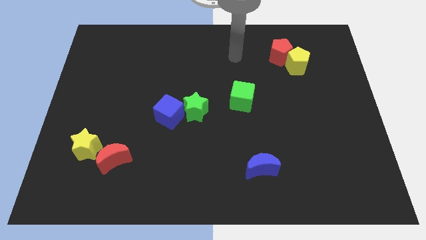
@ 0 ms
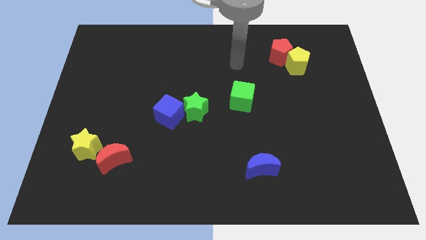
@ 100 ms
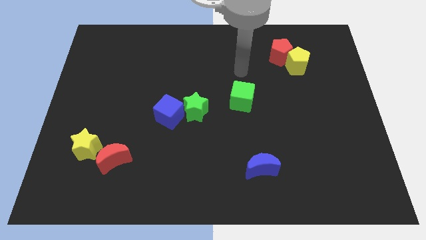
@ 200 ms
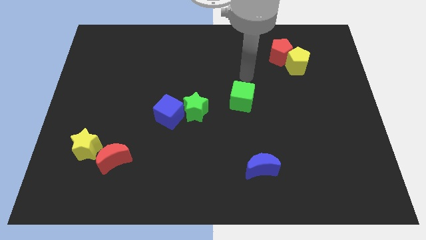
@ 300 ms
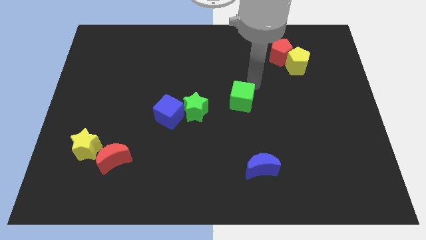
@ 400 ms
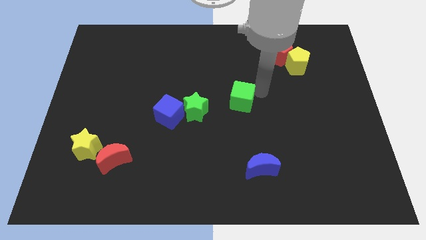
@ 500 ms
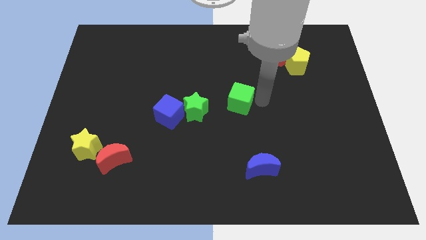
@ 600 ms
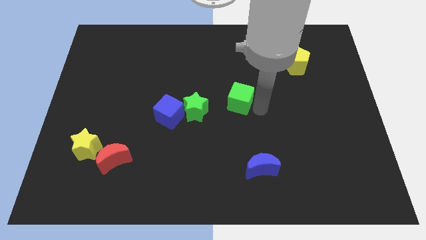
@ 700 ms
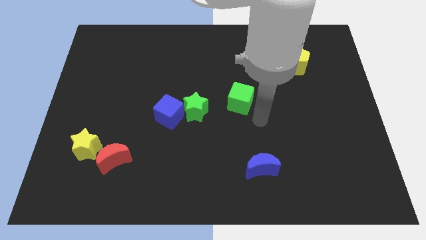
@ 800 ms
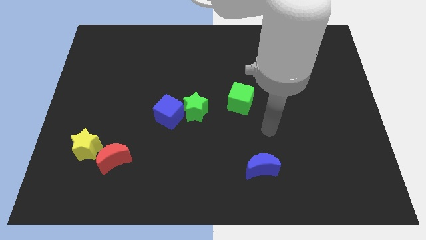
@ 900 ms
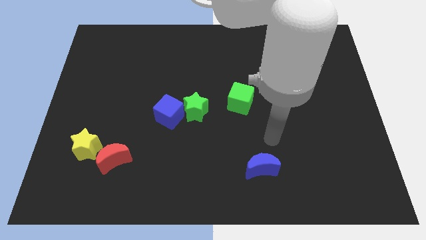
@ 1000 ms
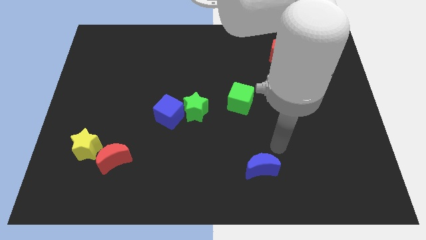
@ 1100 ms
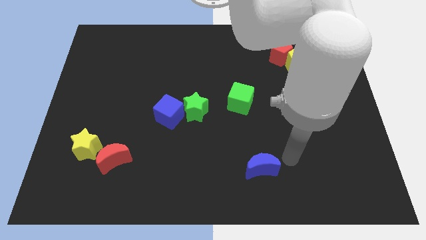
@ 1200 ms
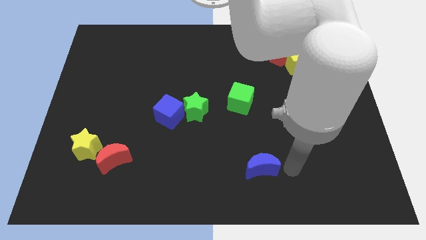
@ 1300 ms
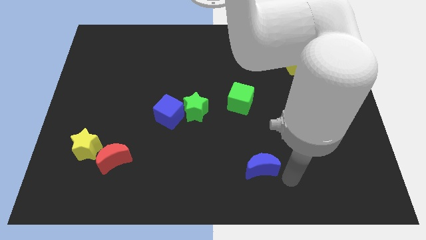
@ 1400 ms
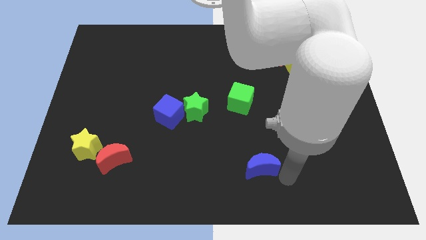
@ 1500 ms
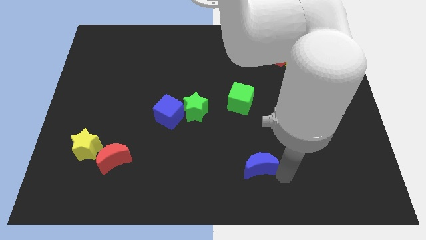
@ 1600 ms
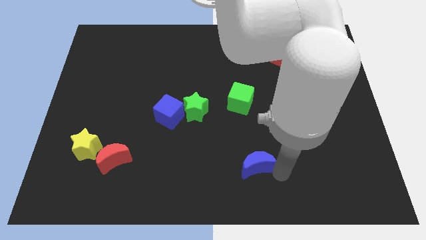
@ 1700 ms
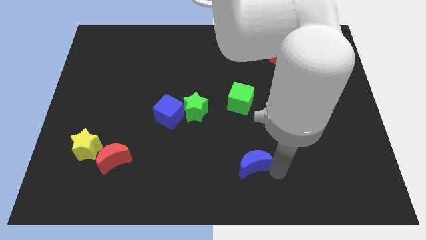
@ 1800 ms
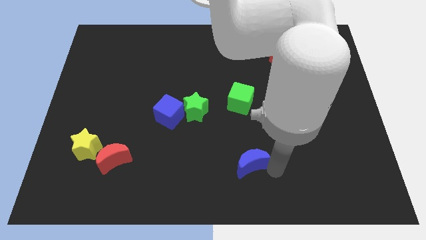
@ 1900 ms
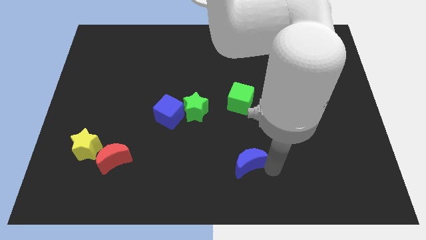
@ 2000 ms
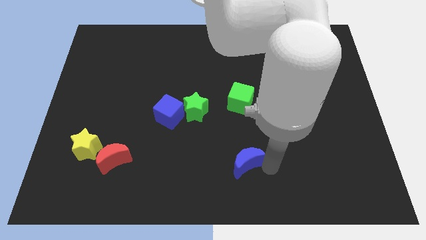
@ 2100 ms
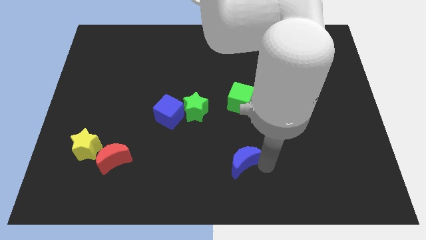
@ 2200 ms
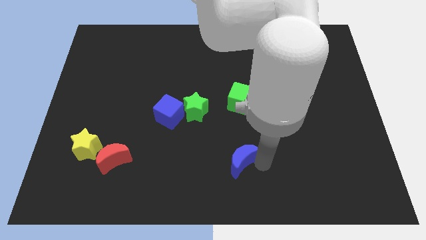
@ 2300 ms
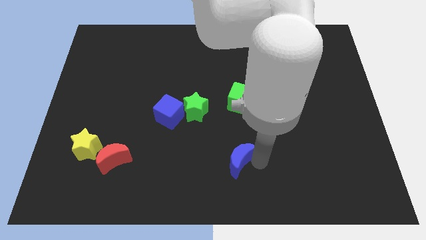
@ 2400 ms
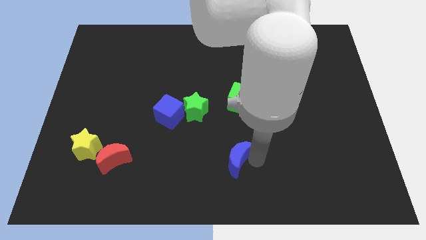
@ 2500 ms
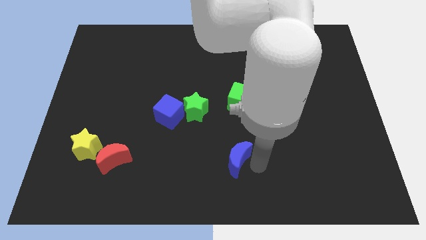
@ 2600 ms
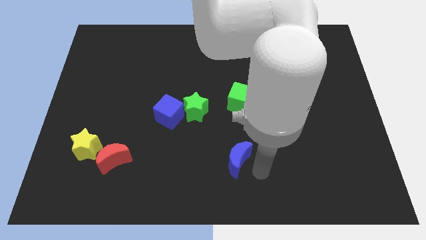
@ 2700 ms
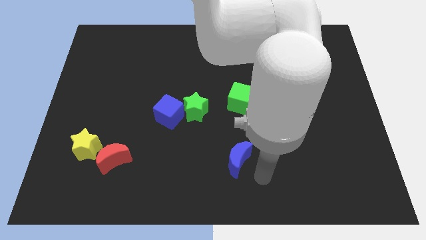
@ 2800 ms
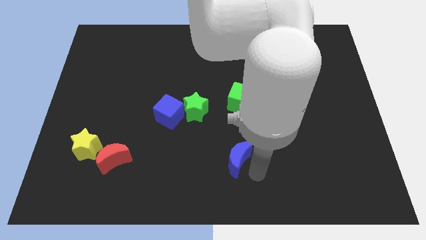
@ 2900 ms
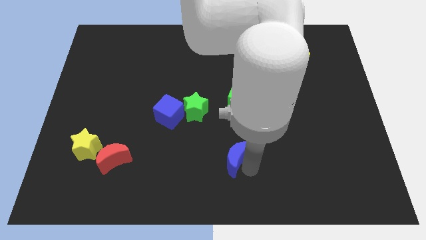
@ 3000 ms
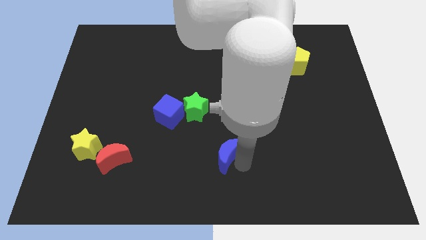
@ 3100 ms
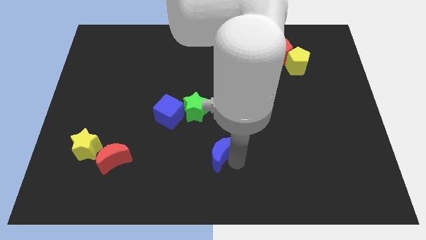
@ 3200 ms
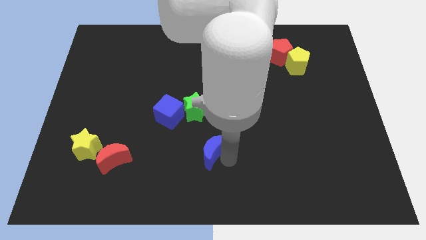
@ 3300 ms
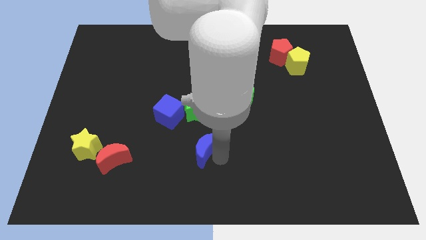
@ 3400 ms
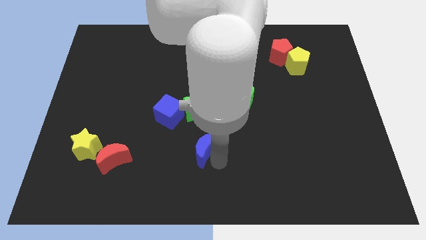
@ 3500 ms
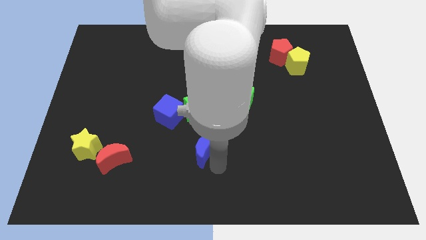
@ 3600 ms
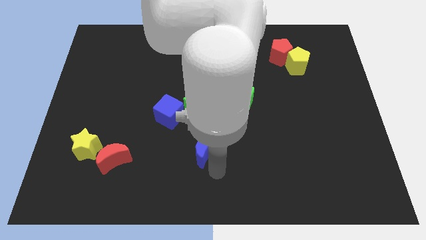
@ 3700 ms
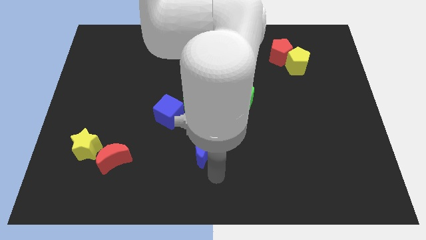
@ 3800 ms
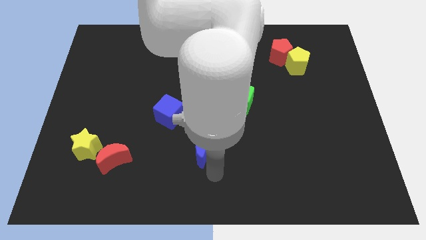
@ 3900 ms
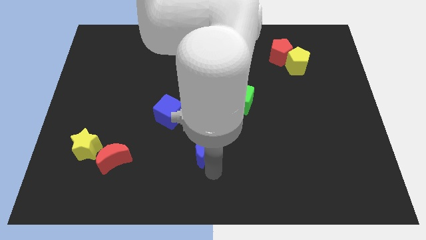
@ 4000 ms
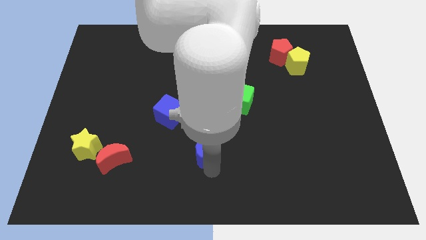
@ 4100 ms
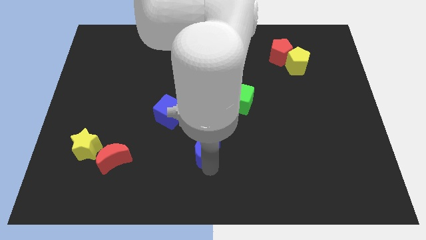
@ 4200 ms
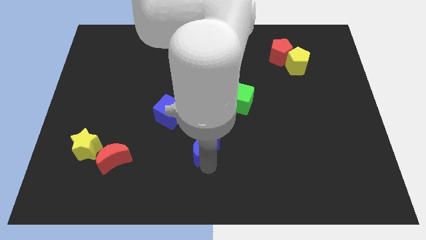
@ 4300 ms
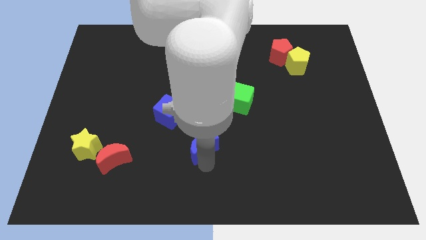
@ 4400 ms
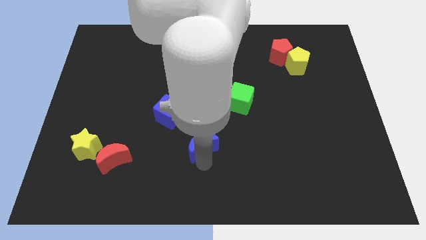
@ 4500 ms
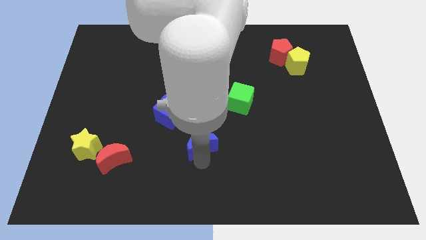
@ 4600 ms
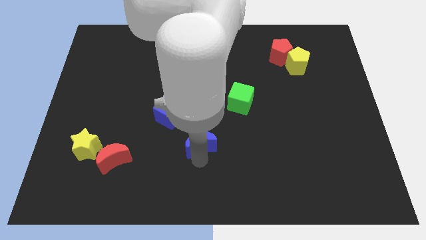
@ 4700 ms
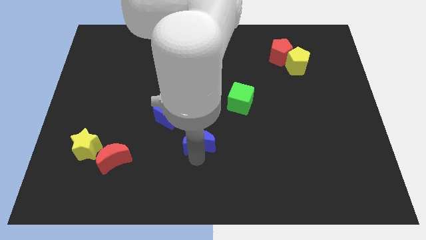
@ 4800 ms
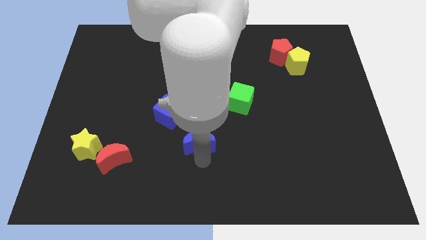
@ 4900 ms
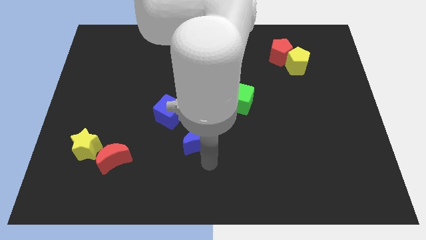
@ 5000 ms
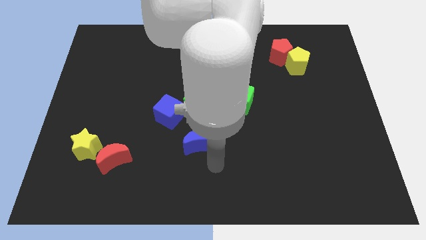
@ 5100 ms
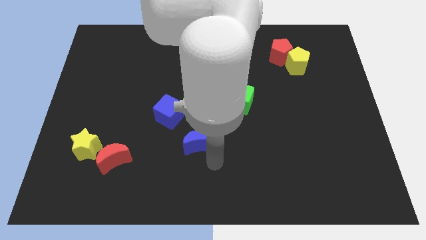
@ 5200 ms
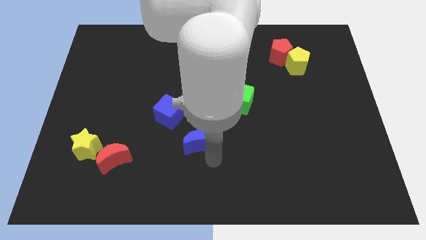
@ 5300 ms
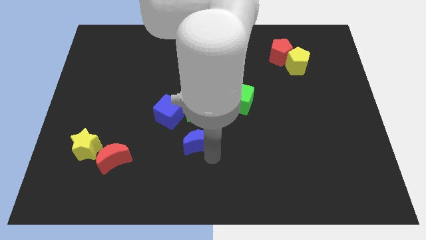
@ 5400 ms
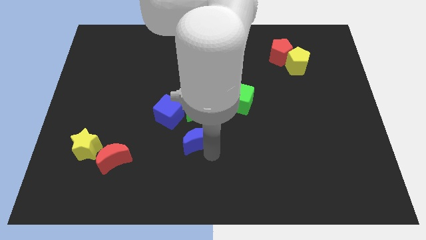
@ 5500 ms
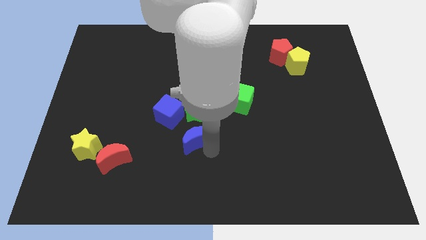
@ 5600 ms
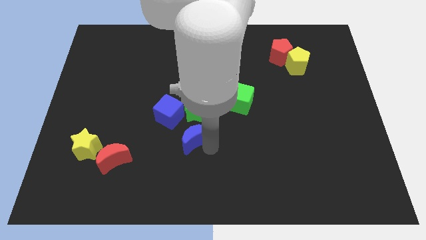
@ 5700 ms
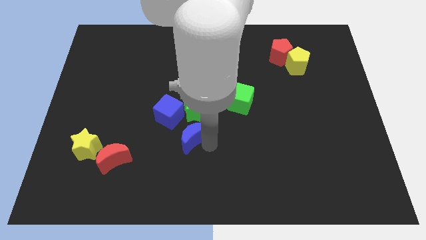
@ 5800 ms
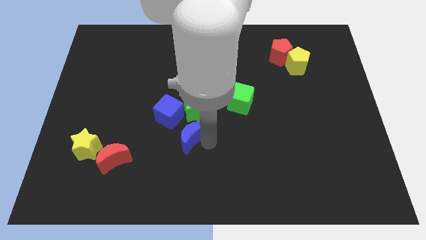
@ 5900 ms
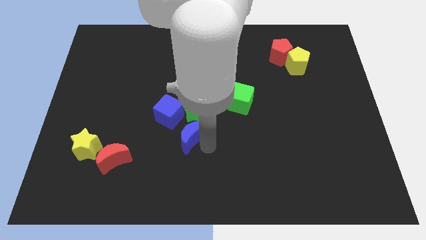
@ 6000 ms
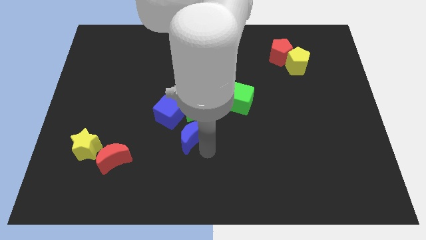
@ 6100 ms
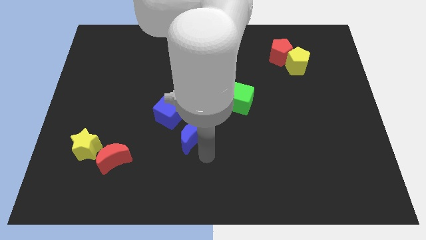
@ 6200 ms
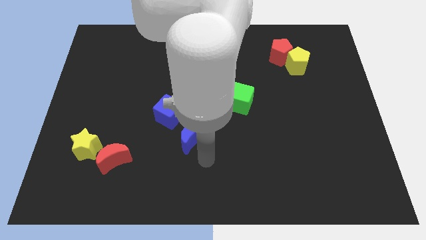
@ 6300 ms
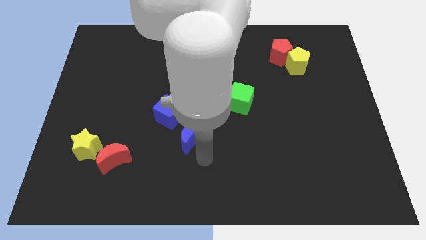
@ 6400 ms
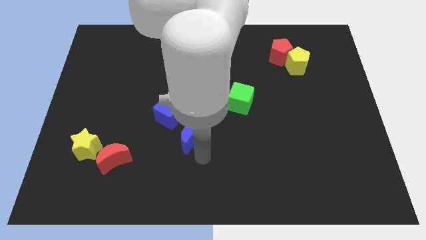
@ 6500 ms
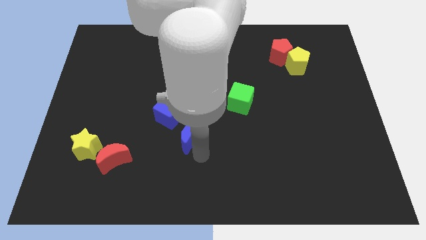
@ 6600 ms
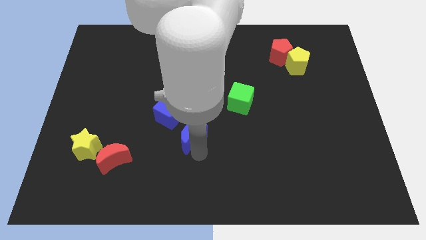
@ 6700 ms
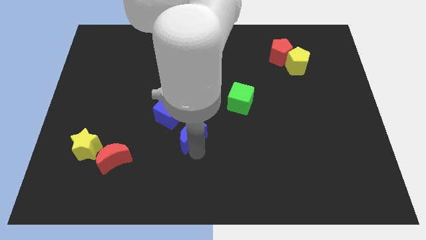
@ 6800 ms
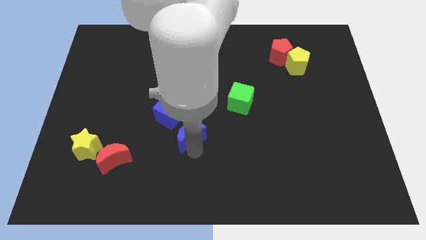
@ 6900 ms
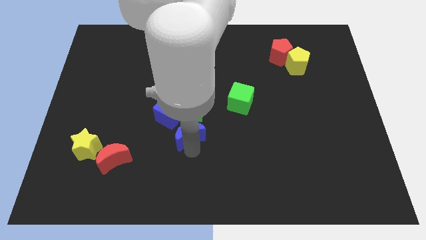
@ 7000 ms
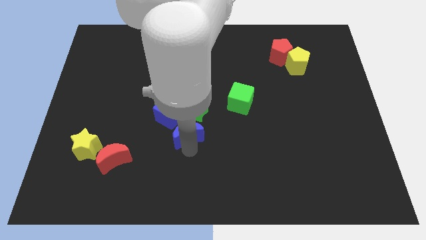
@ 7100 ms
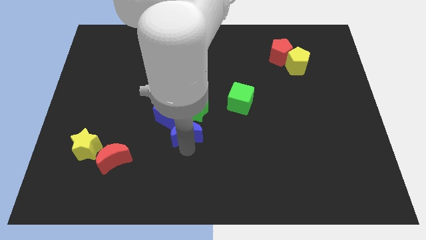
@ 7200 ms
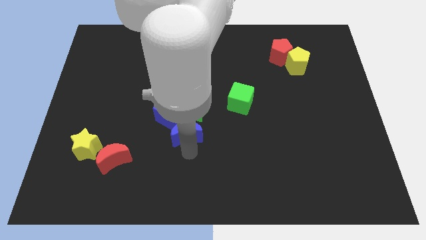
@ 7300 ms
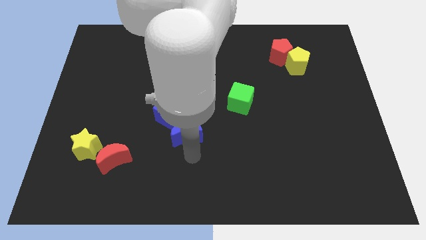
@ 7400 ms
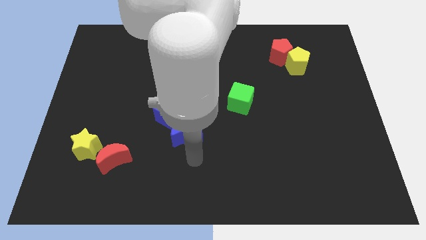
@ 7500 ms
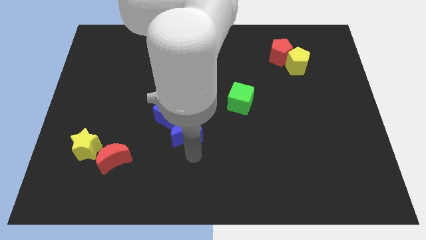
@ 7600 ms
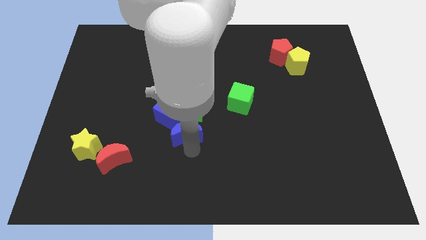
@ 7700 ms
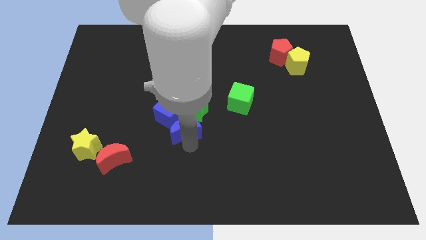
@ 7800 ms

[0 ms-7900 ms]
put the blue moon to the blue cube
